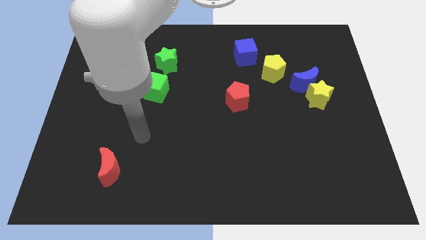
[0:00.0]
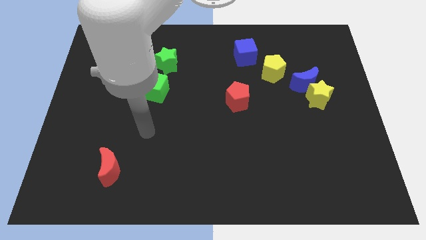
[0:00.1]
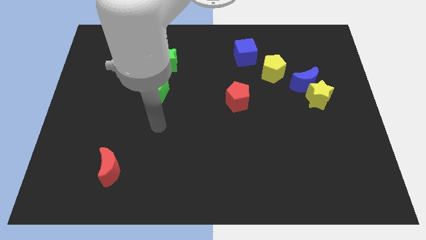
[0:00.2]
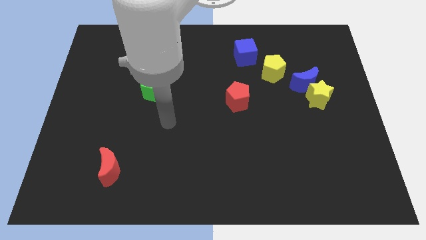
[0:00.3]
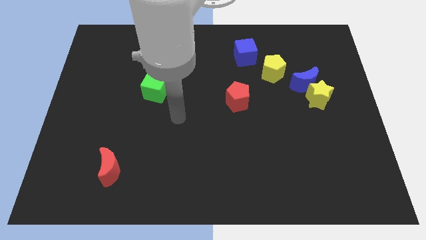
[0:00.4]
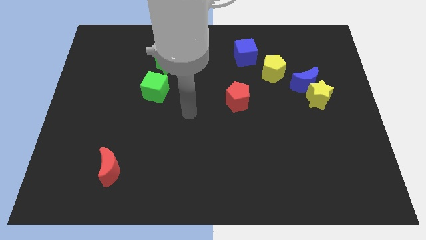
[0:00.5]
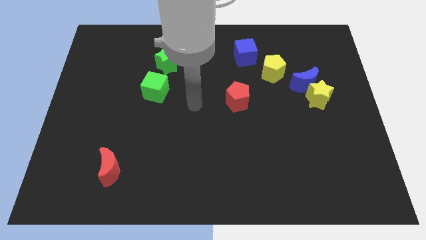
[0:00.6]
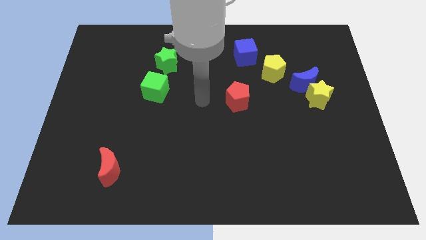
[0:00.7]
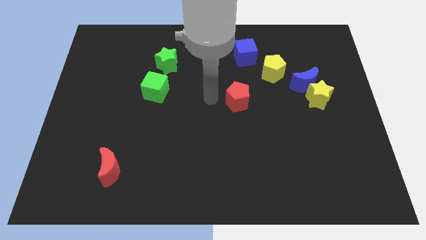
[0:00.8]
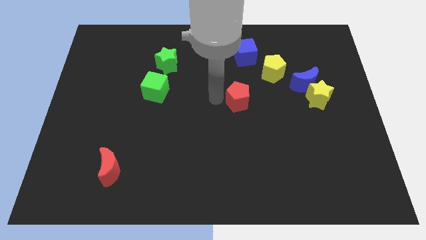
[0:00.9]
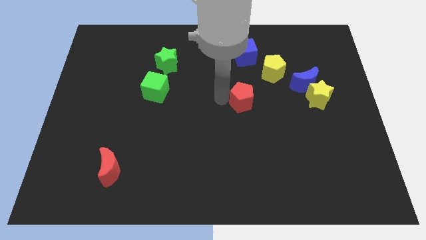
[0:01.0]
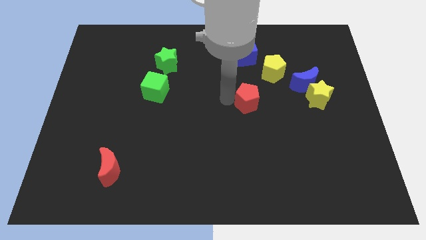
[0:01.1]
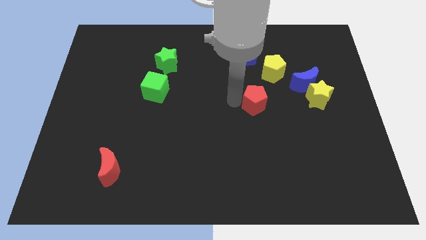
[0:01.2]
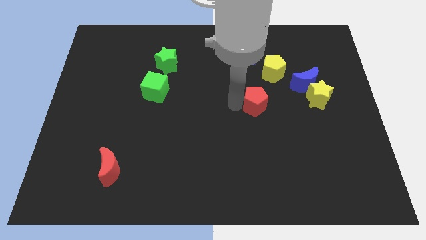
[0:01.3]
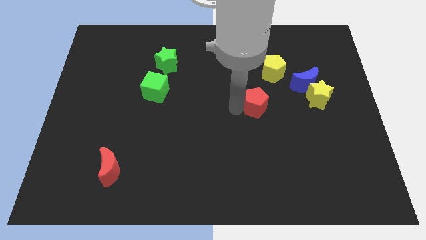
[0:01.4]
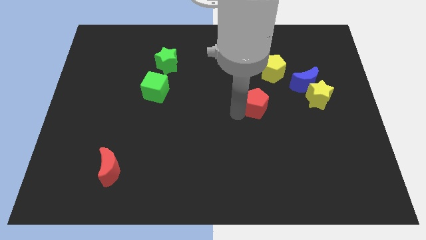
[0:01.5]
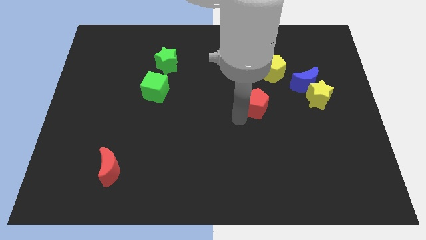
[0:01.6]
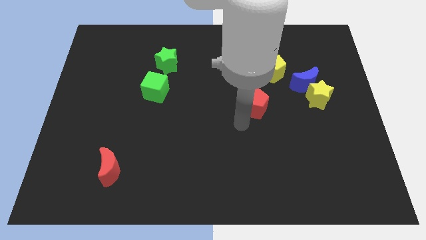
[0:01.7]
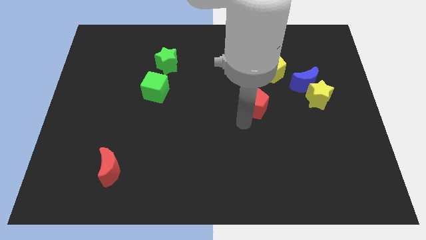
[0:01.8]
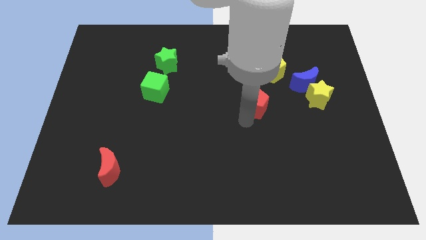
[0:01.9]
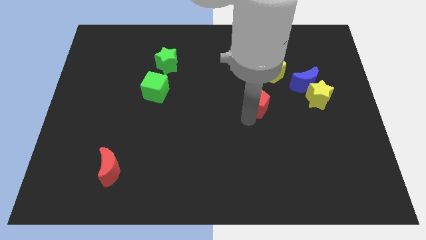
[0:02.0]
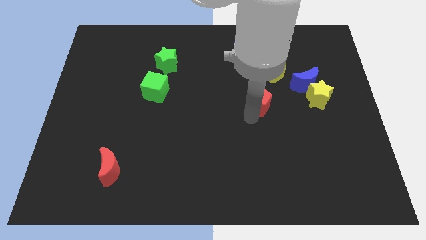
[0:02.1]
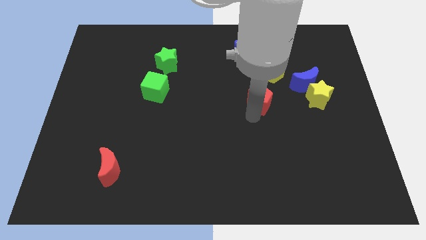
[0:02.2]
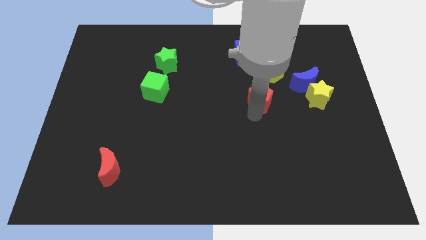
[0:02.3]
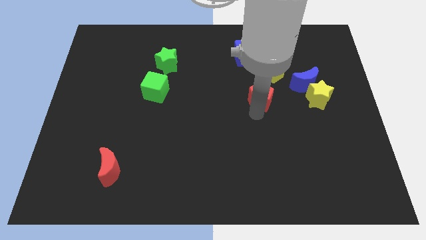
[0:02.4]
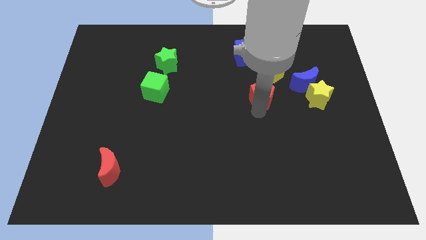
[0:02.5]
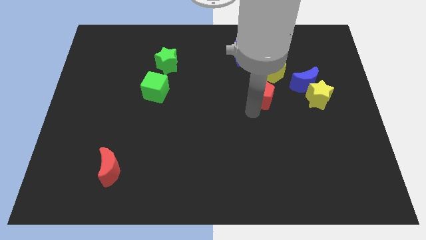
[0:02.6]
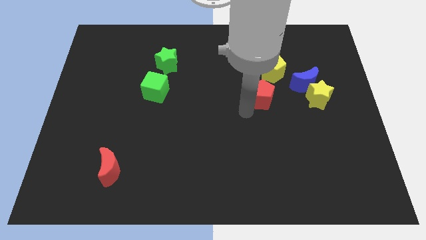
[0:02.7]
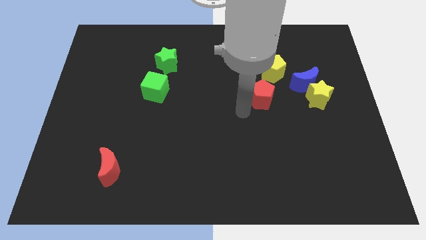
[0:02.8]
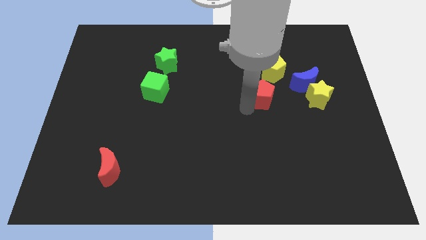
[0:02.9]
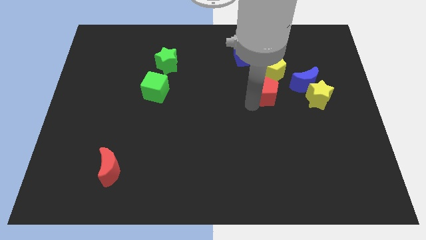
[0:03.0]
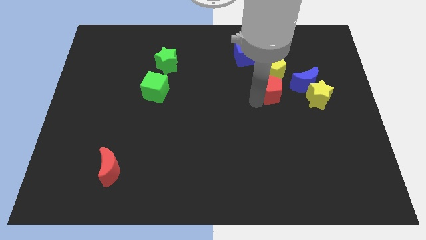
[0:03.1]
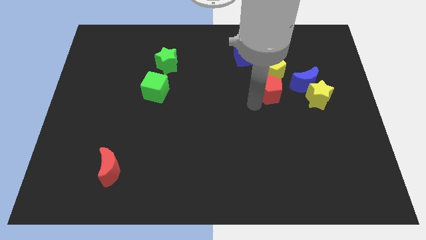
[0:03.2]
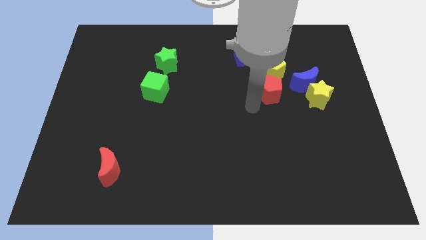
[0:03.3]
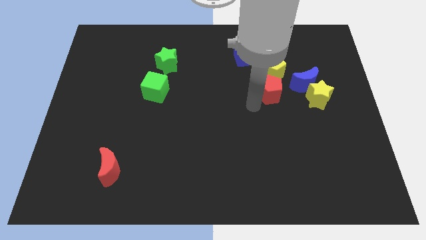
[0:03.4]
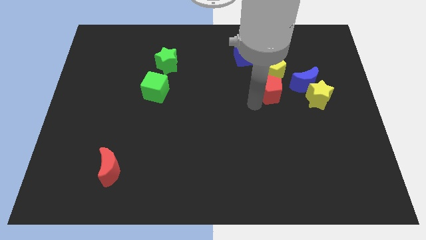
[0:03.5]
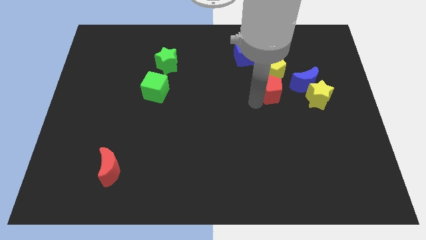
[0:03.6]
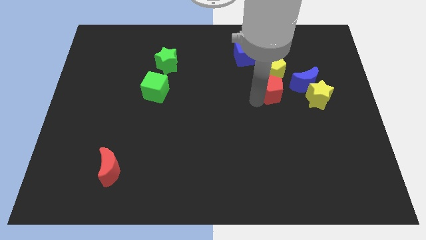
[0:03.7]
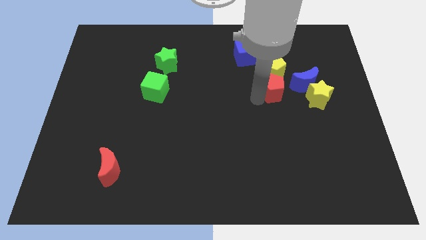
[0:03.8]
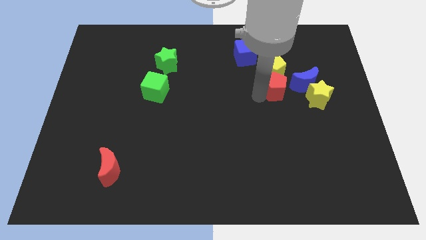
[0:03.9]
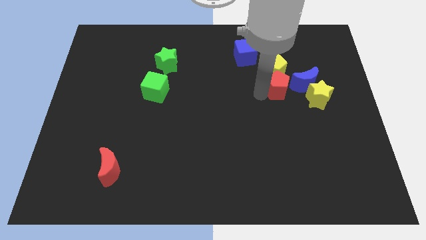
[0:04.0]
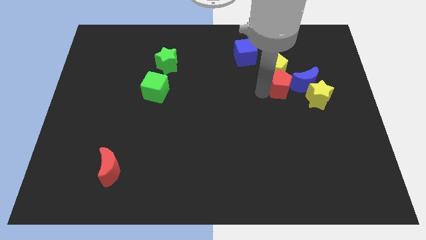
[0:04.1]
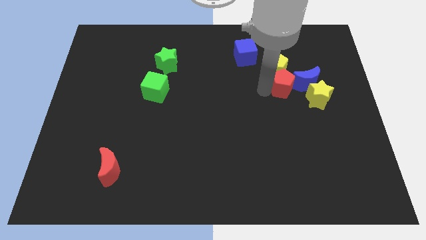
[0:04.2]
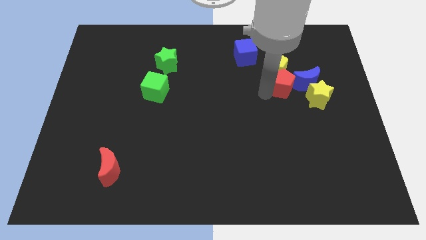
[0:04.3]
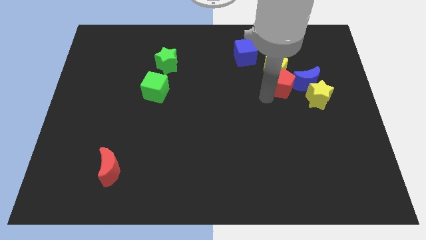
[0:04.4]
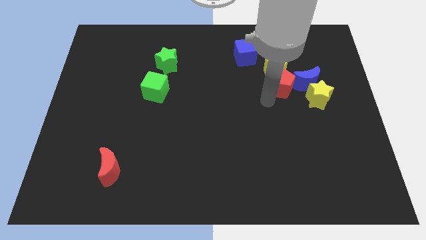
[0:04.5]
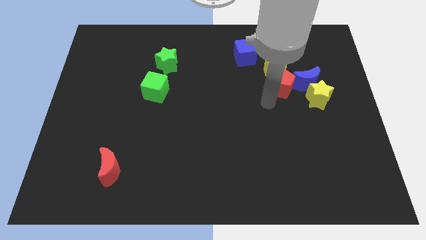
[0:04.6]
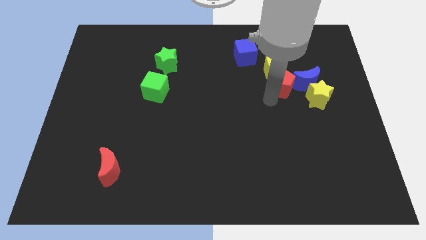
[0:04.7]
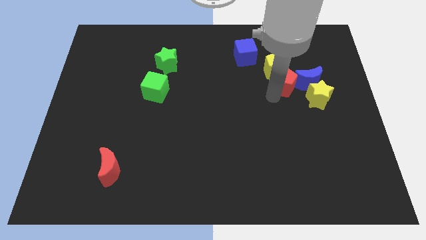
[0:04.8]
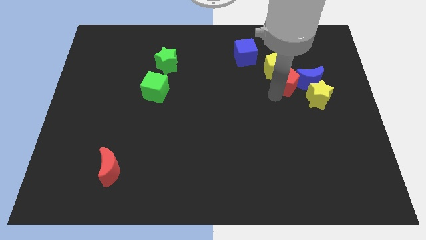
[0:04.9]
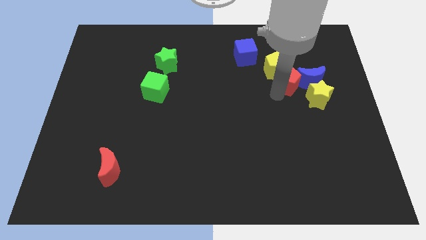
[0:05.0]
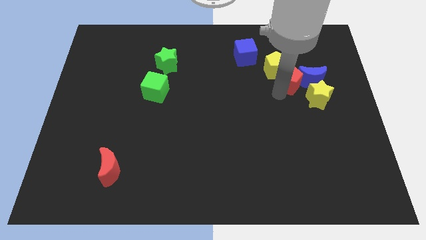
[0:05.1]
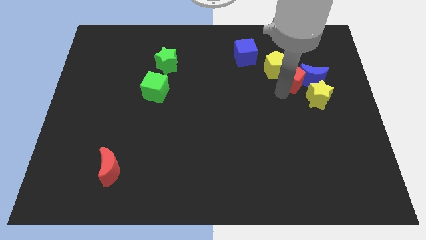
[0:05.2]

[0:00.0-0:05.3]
push the red pentagon just right of the yellow pentagon

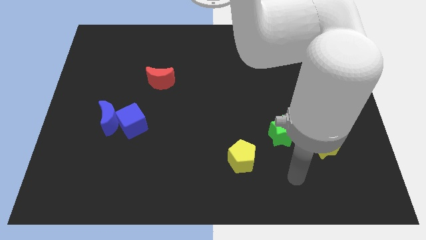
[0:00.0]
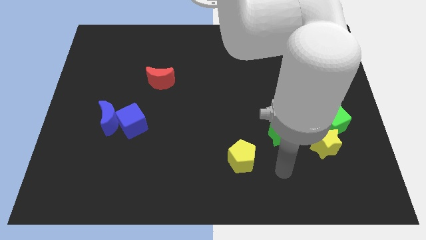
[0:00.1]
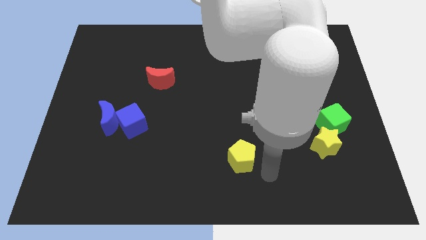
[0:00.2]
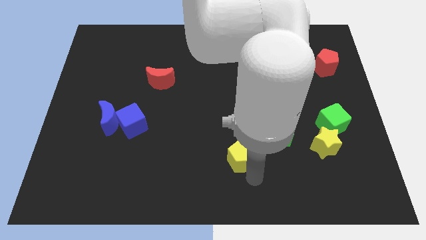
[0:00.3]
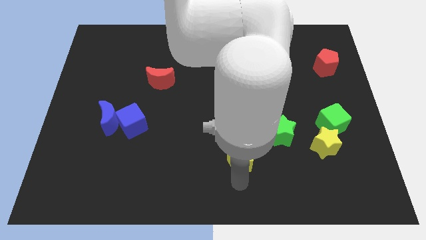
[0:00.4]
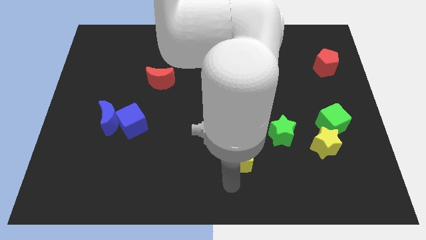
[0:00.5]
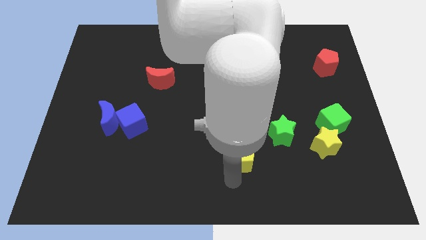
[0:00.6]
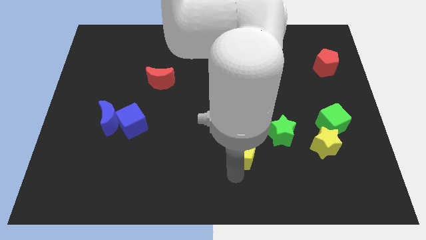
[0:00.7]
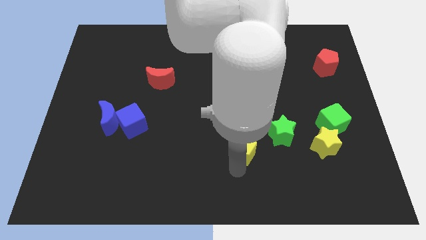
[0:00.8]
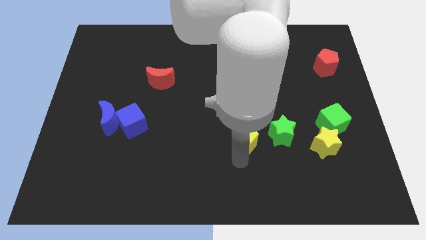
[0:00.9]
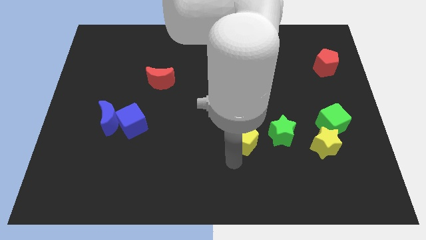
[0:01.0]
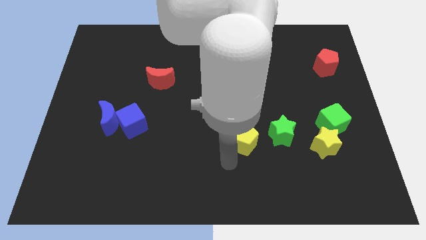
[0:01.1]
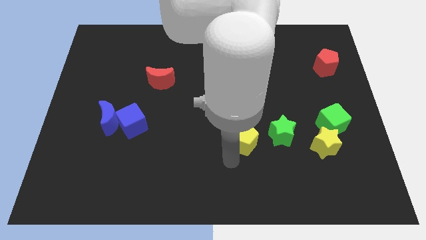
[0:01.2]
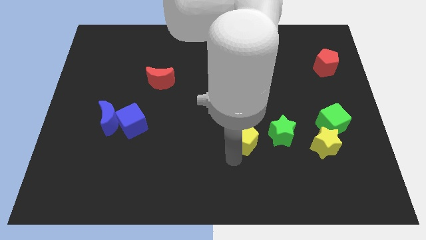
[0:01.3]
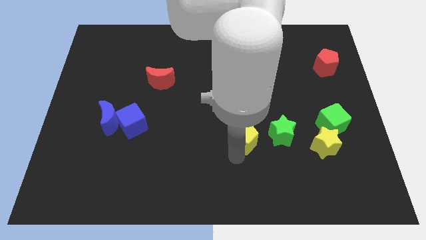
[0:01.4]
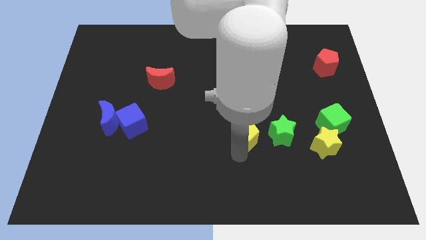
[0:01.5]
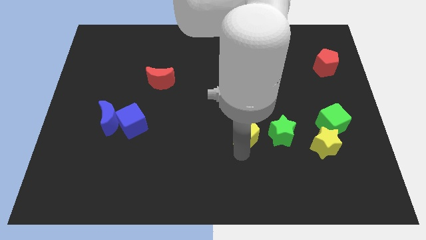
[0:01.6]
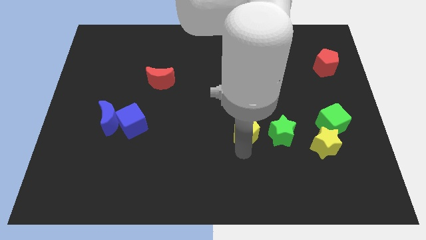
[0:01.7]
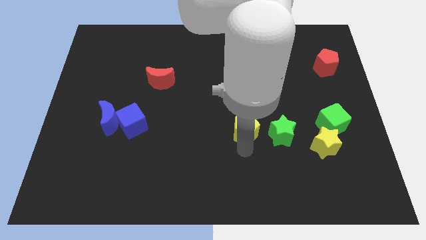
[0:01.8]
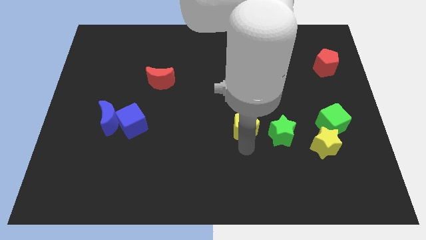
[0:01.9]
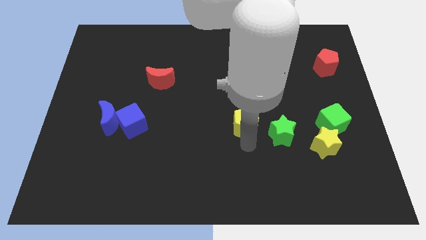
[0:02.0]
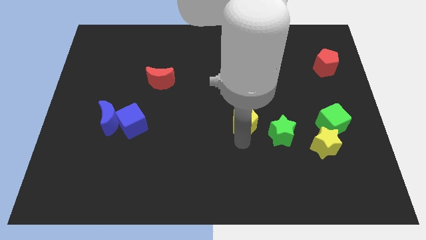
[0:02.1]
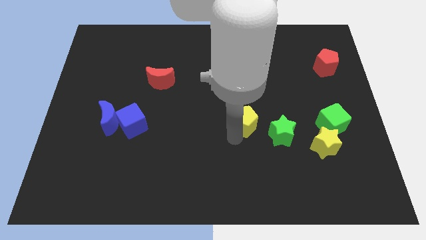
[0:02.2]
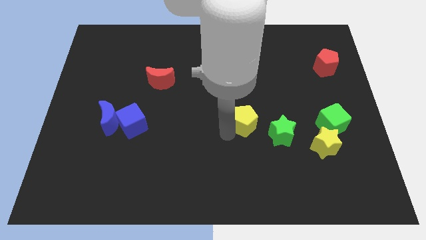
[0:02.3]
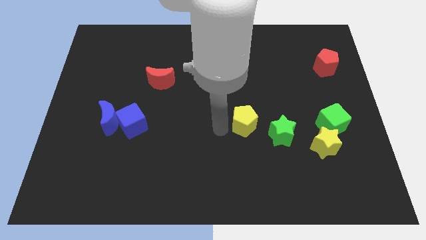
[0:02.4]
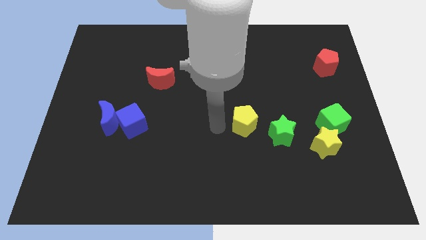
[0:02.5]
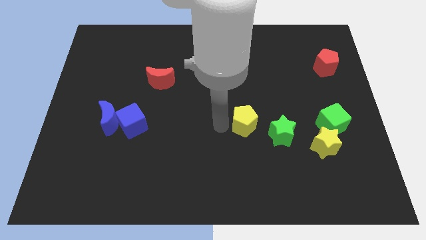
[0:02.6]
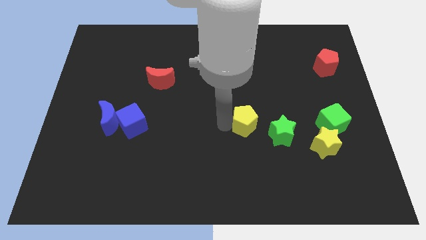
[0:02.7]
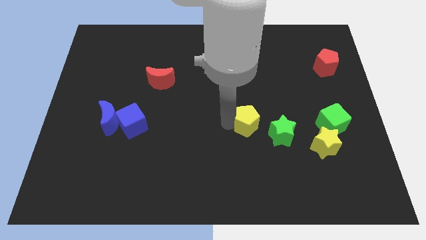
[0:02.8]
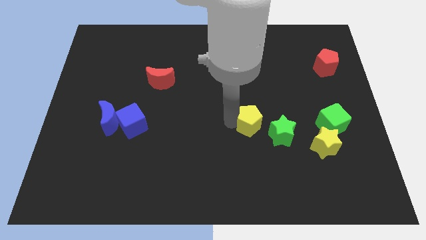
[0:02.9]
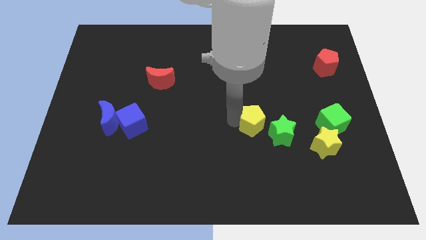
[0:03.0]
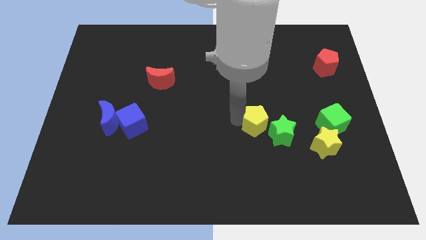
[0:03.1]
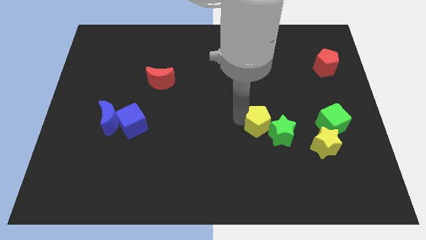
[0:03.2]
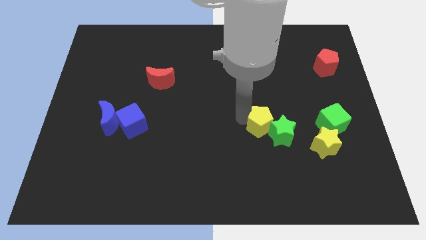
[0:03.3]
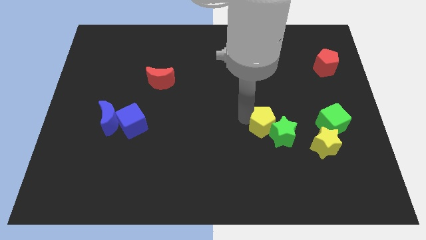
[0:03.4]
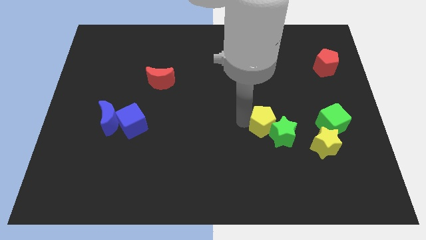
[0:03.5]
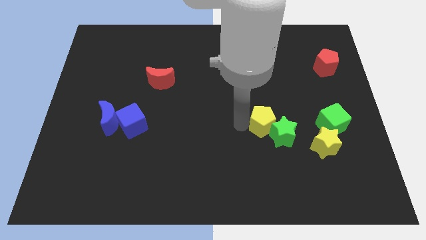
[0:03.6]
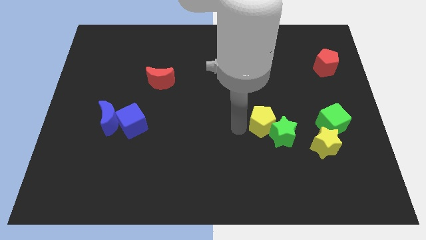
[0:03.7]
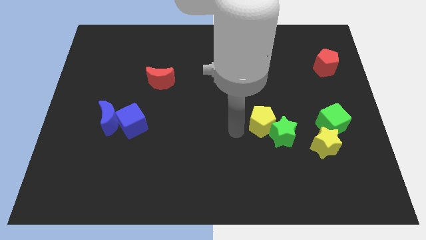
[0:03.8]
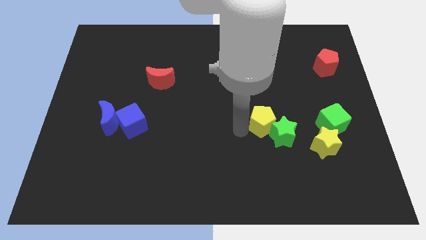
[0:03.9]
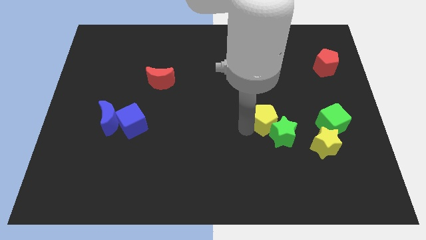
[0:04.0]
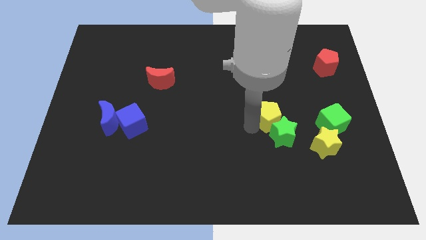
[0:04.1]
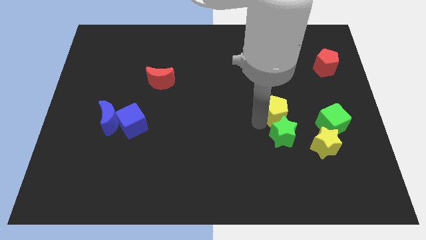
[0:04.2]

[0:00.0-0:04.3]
put the yellow pentagon to the top right of the green star
